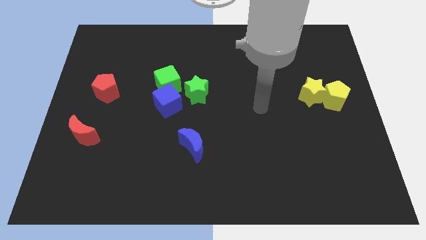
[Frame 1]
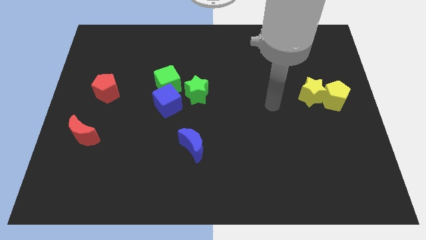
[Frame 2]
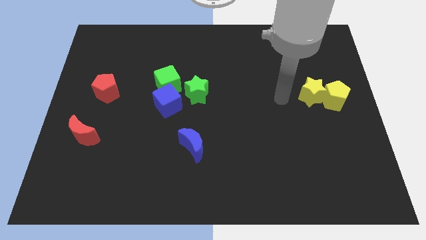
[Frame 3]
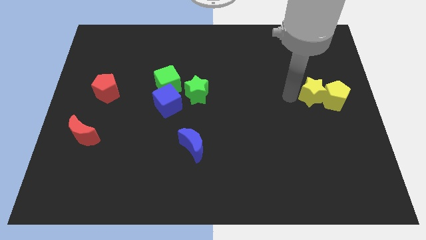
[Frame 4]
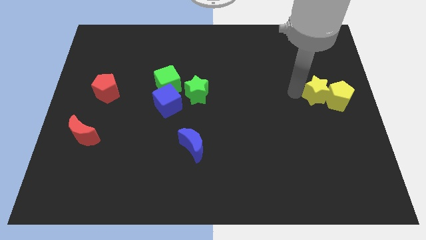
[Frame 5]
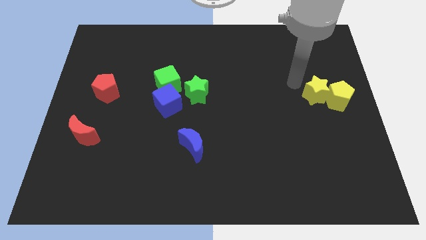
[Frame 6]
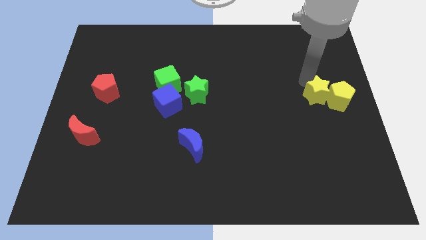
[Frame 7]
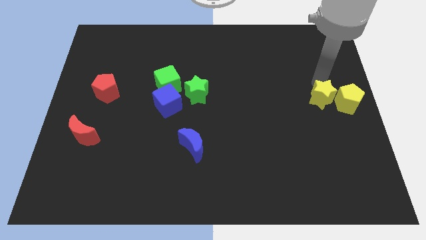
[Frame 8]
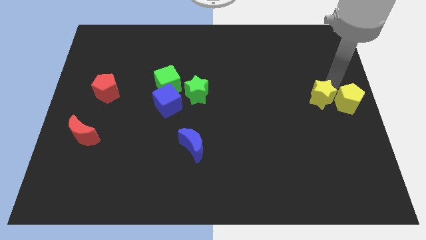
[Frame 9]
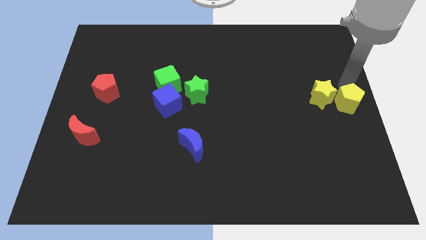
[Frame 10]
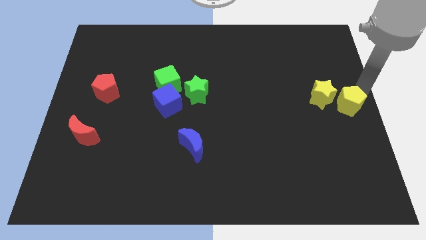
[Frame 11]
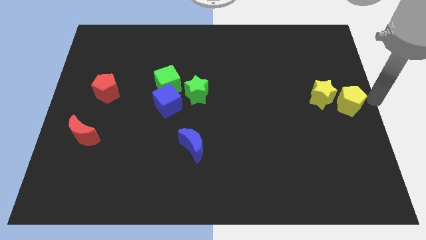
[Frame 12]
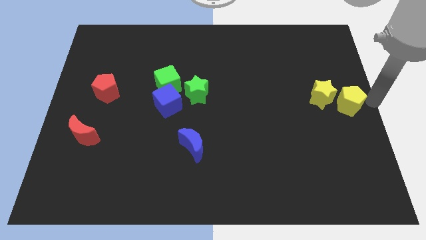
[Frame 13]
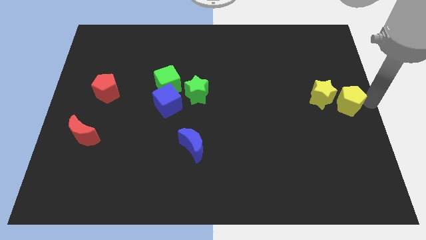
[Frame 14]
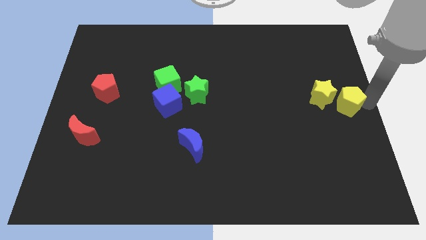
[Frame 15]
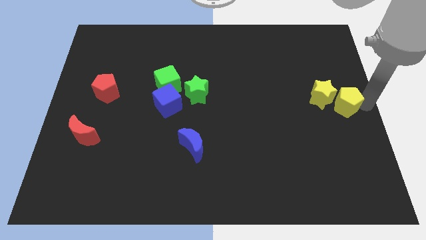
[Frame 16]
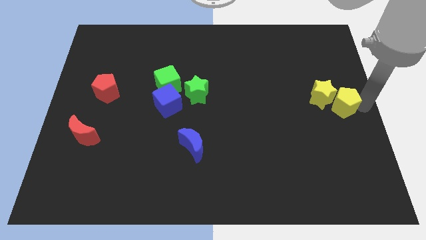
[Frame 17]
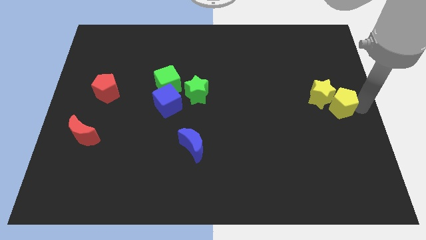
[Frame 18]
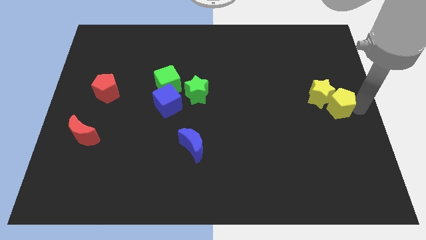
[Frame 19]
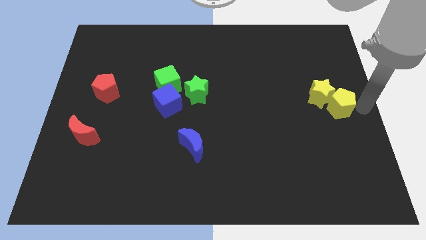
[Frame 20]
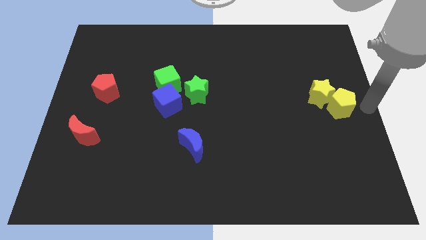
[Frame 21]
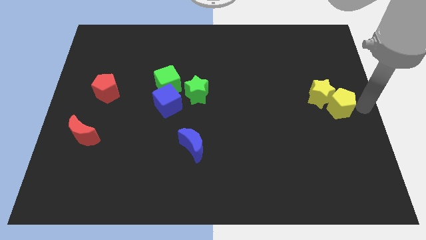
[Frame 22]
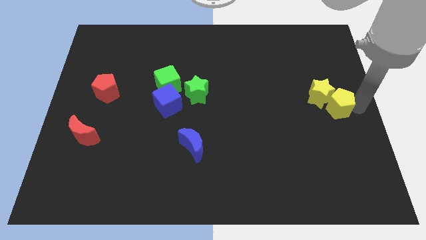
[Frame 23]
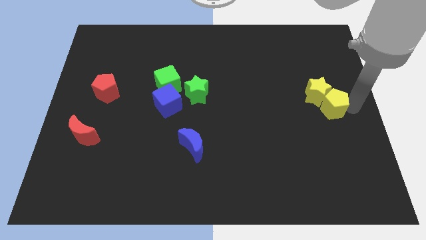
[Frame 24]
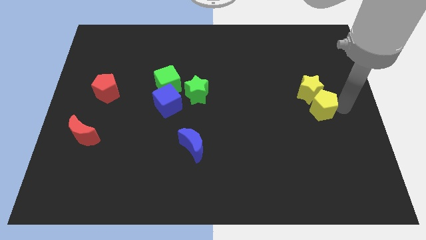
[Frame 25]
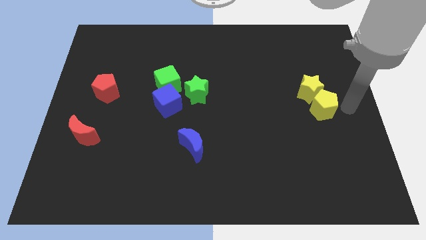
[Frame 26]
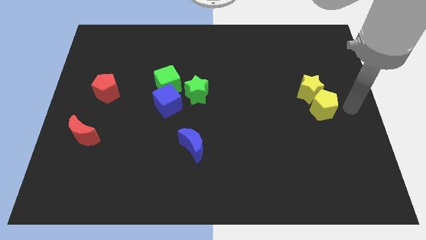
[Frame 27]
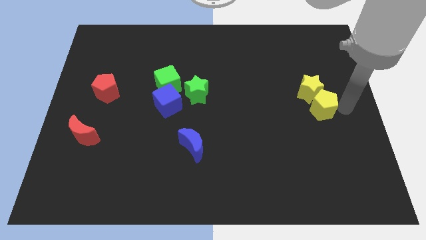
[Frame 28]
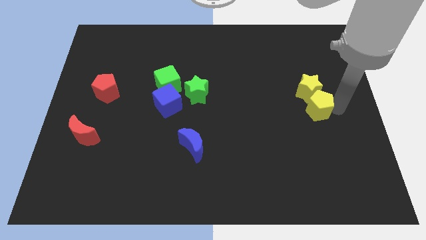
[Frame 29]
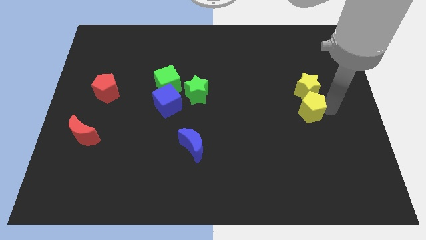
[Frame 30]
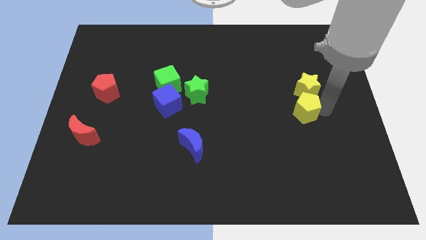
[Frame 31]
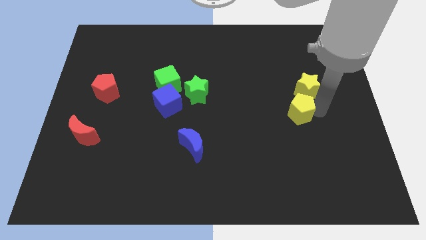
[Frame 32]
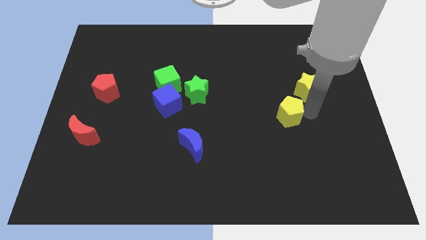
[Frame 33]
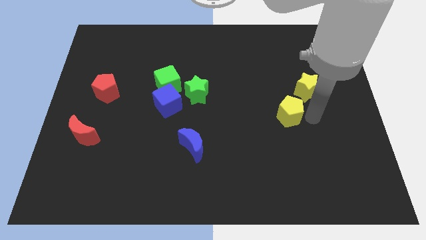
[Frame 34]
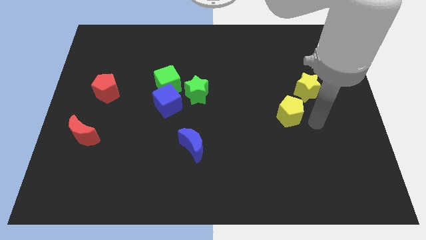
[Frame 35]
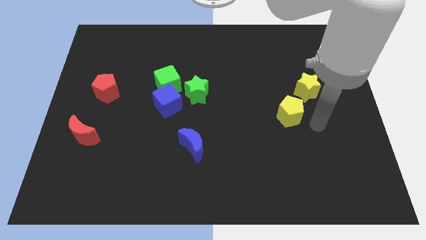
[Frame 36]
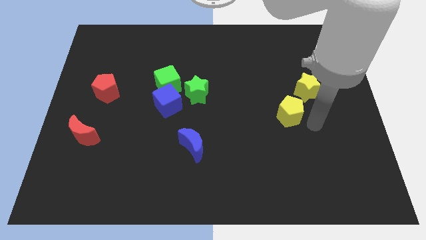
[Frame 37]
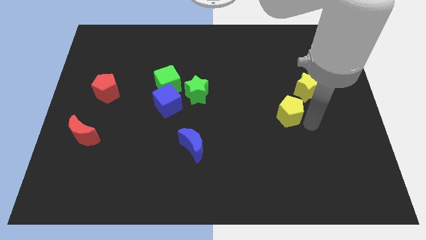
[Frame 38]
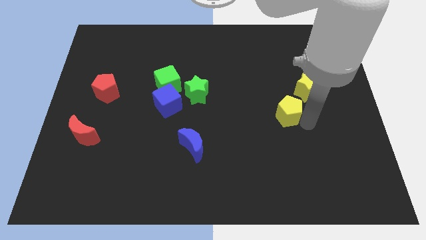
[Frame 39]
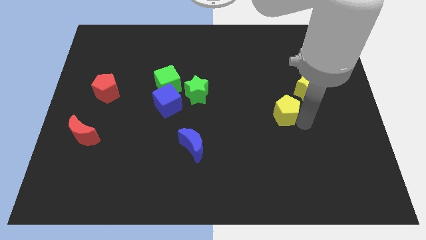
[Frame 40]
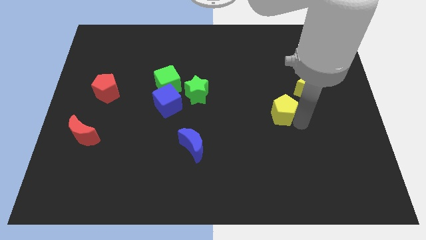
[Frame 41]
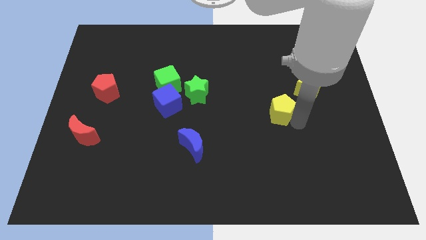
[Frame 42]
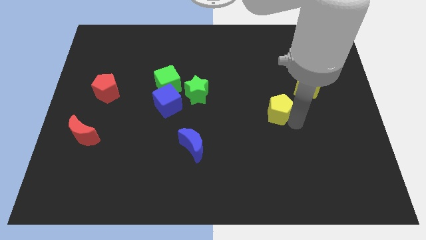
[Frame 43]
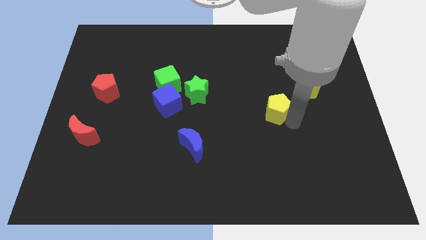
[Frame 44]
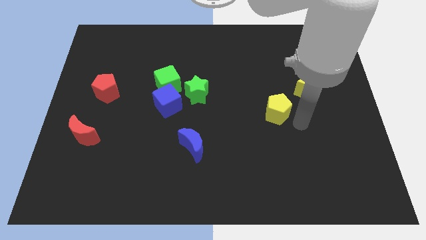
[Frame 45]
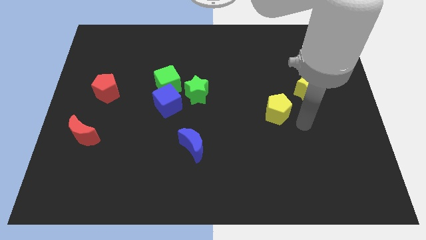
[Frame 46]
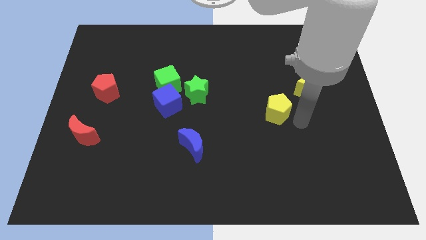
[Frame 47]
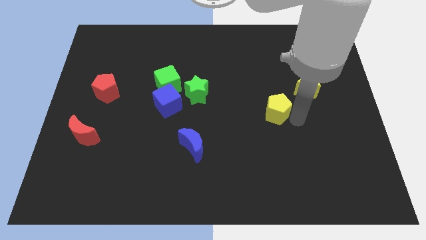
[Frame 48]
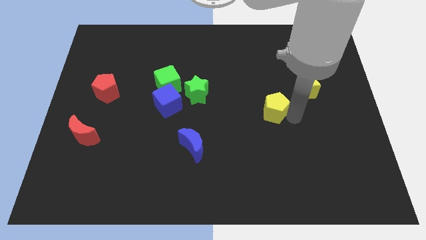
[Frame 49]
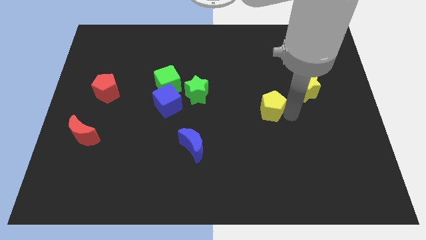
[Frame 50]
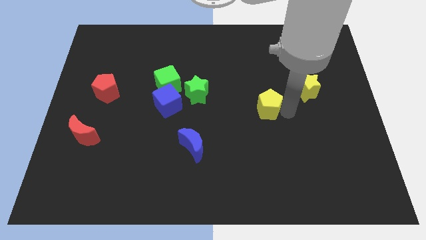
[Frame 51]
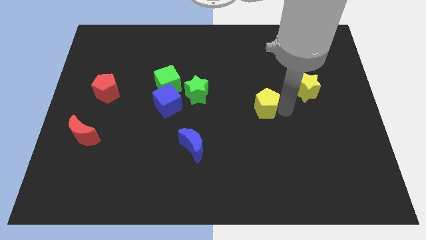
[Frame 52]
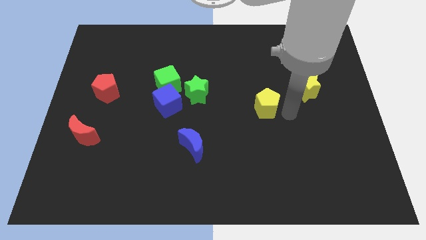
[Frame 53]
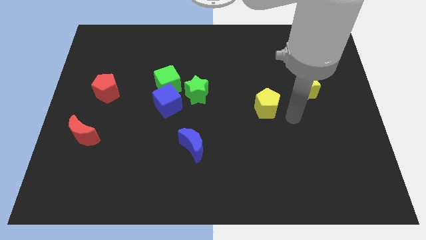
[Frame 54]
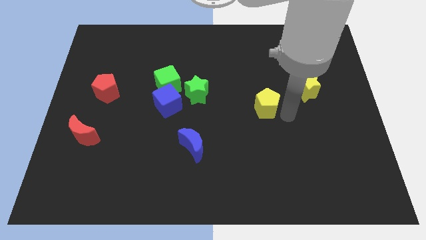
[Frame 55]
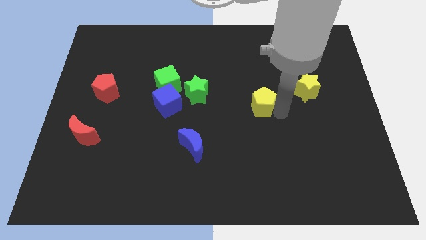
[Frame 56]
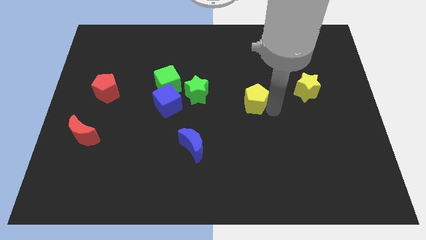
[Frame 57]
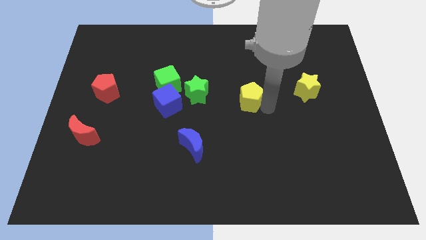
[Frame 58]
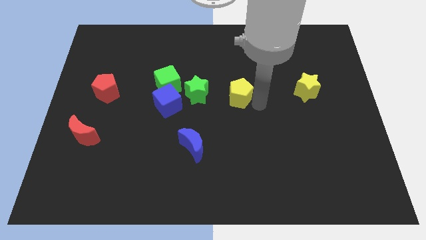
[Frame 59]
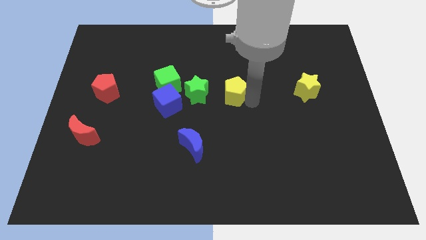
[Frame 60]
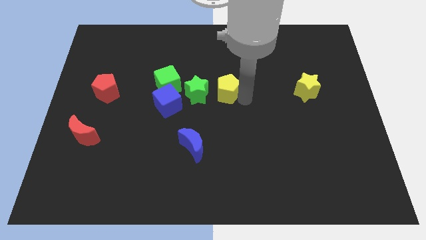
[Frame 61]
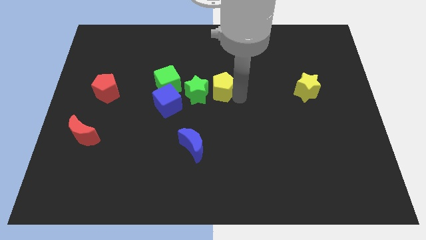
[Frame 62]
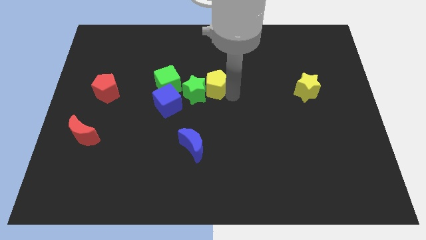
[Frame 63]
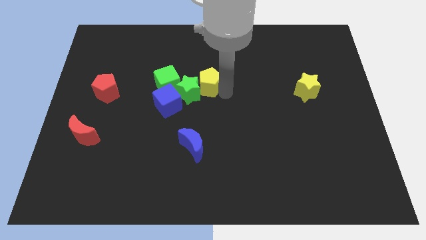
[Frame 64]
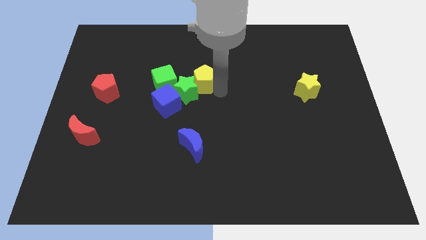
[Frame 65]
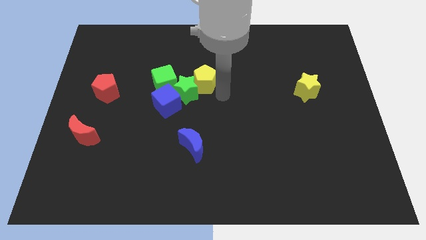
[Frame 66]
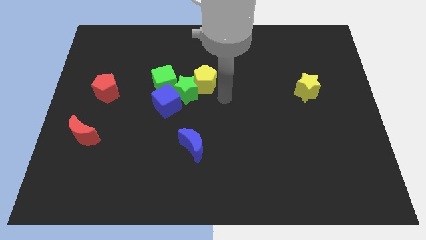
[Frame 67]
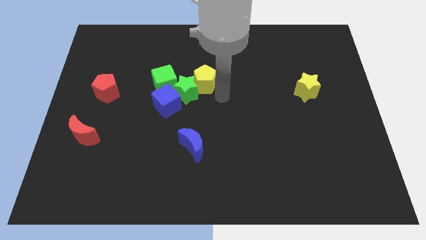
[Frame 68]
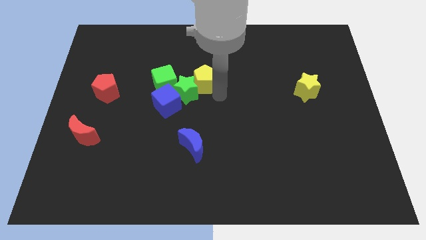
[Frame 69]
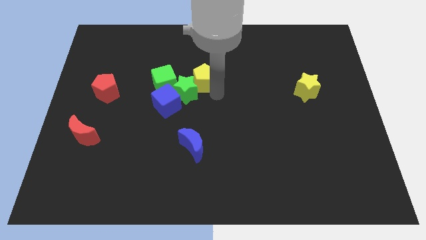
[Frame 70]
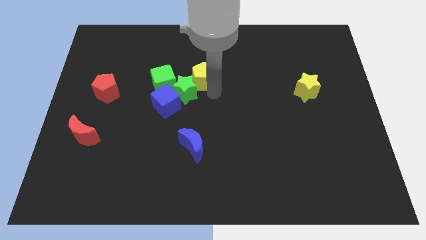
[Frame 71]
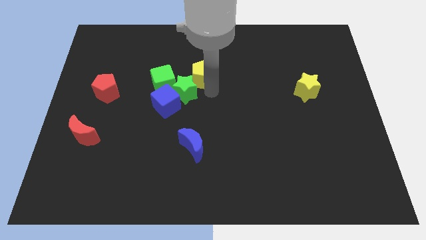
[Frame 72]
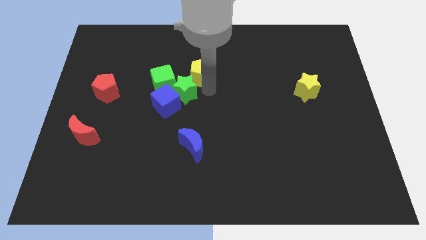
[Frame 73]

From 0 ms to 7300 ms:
push the yellow pentagon to the top right side of the green cube
